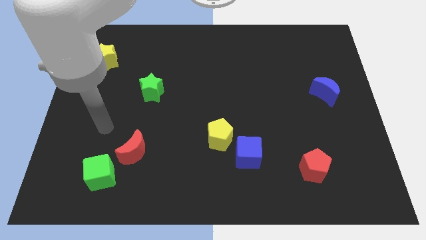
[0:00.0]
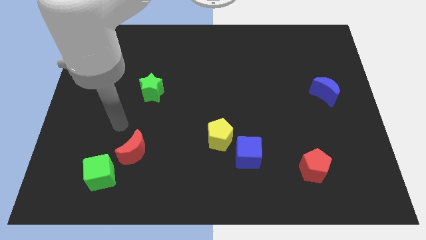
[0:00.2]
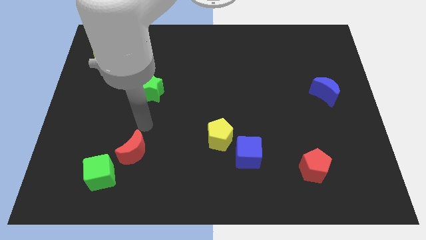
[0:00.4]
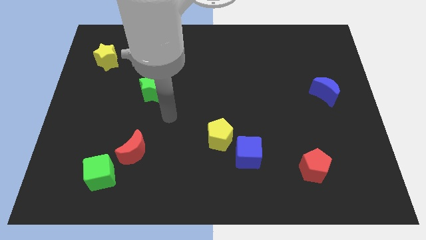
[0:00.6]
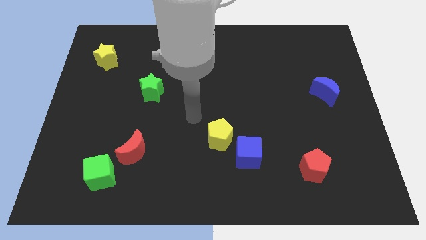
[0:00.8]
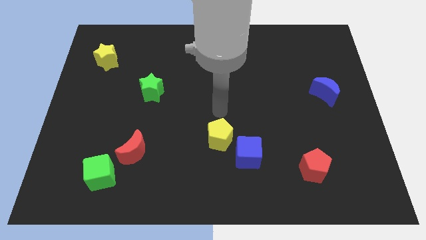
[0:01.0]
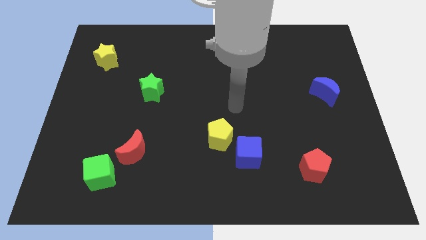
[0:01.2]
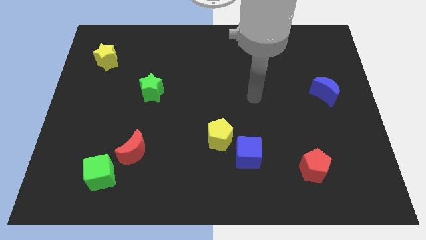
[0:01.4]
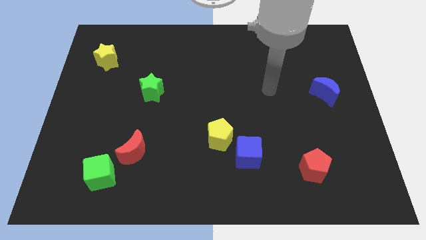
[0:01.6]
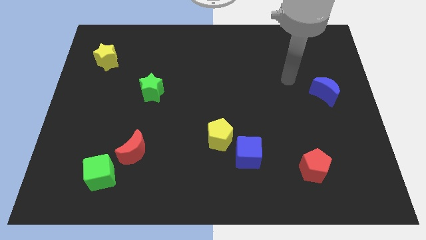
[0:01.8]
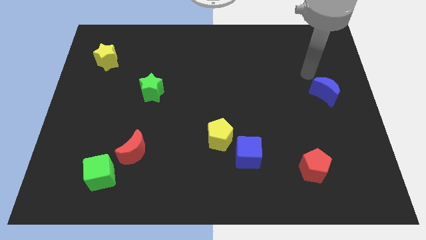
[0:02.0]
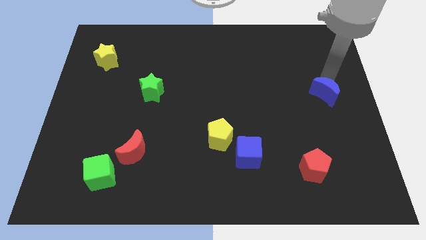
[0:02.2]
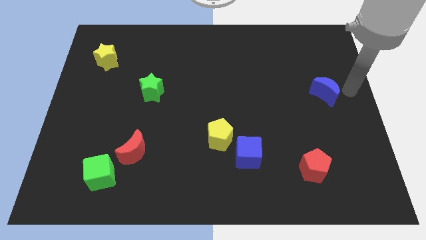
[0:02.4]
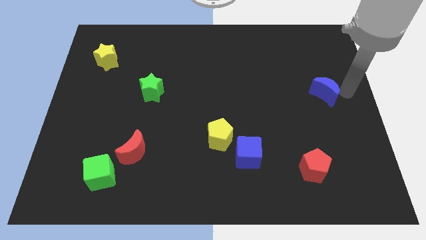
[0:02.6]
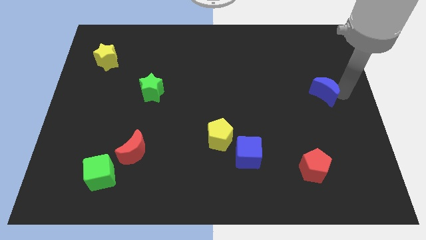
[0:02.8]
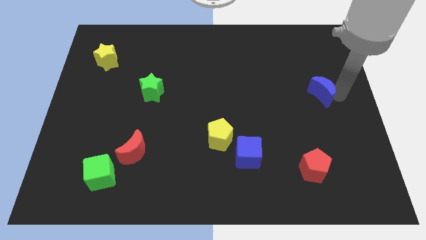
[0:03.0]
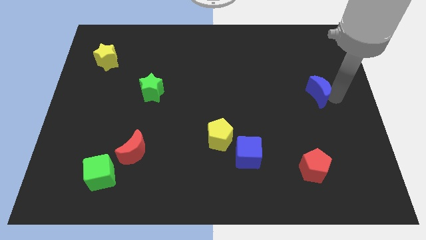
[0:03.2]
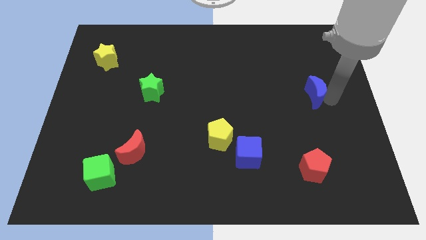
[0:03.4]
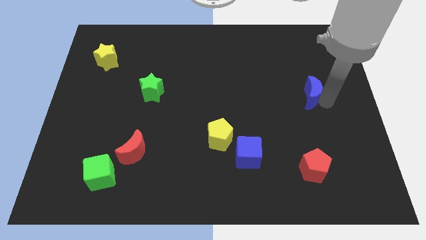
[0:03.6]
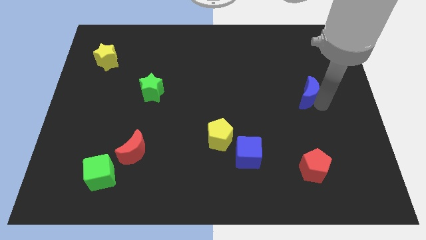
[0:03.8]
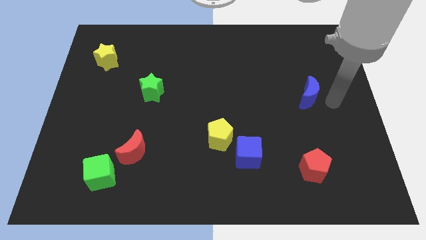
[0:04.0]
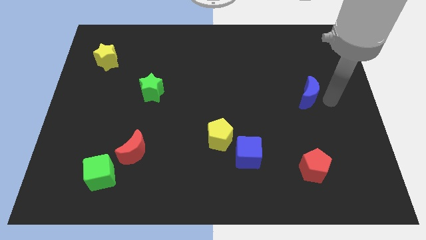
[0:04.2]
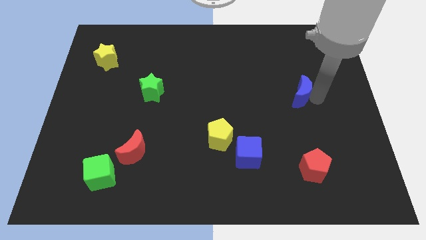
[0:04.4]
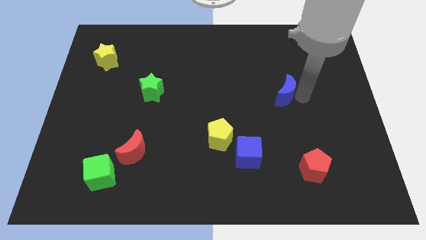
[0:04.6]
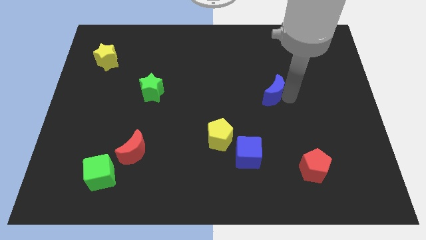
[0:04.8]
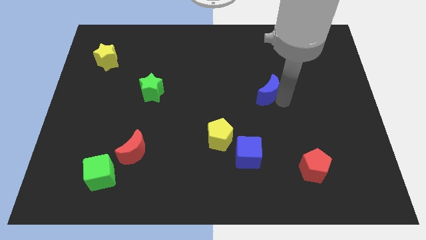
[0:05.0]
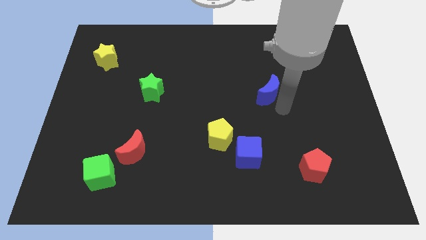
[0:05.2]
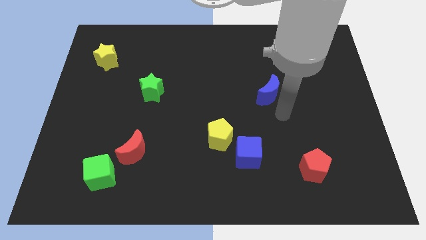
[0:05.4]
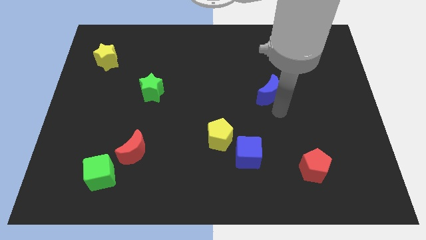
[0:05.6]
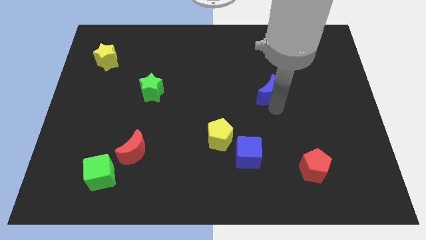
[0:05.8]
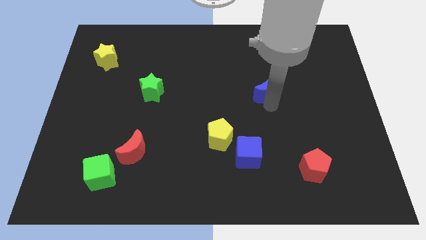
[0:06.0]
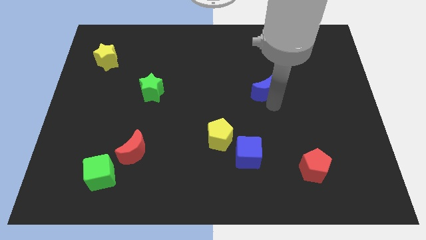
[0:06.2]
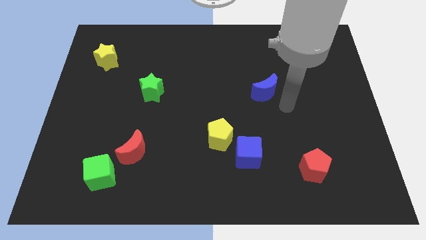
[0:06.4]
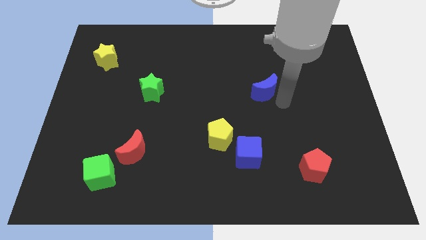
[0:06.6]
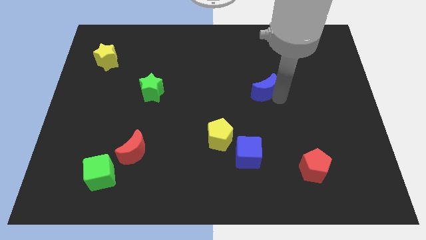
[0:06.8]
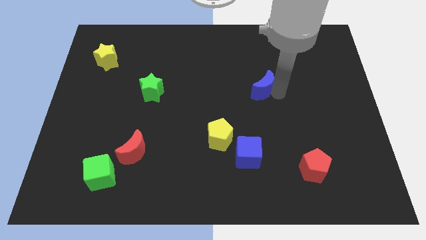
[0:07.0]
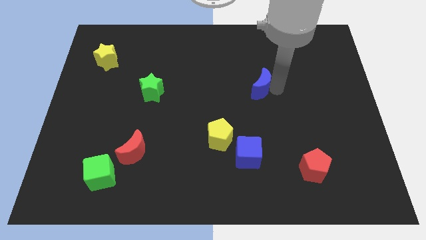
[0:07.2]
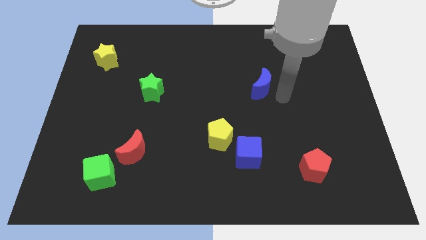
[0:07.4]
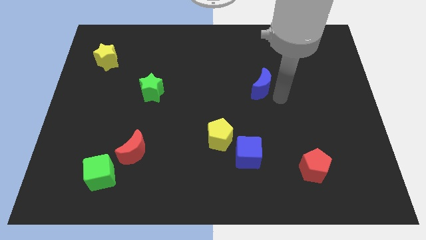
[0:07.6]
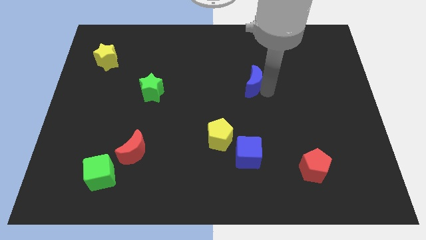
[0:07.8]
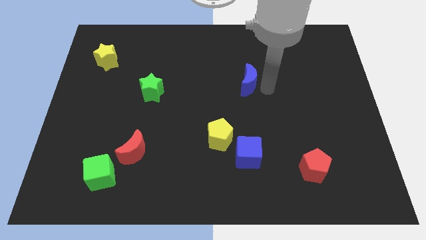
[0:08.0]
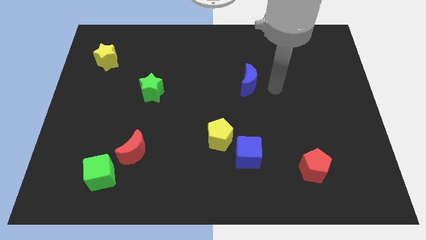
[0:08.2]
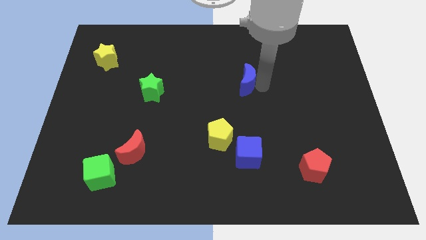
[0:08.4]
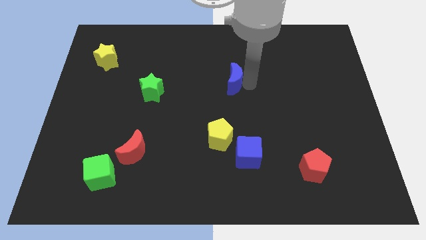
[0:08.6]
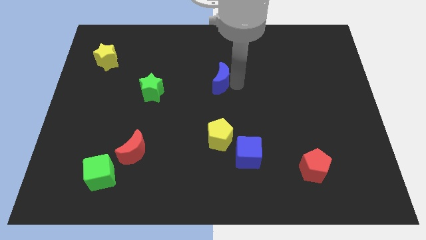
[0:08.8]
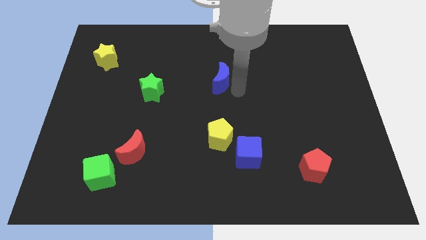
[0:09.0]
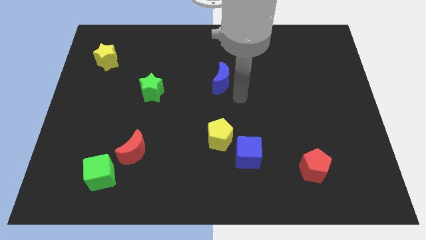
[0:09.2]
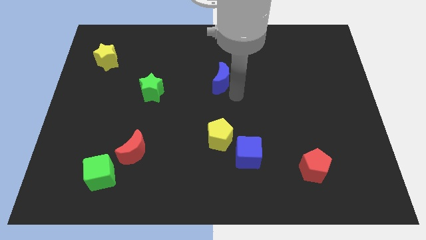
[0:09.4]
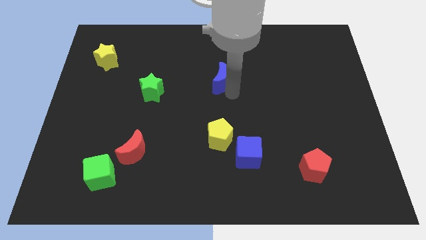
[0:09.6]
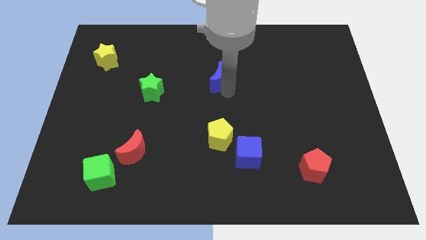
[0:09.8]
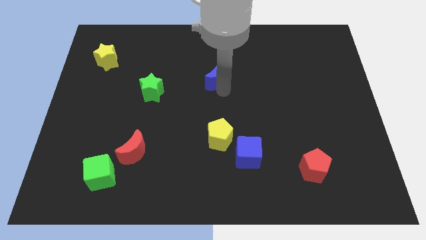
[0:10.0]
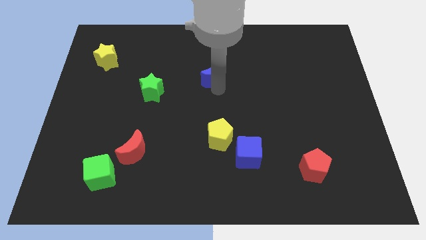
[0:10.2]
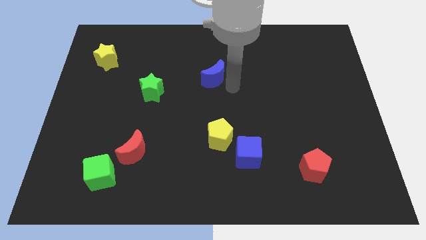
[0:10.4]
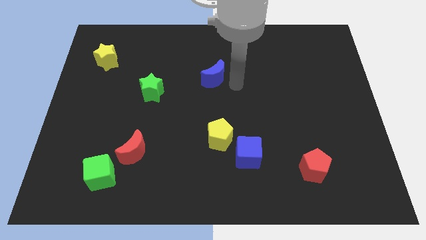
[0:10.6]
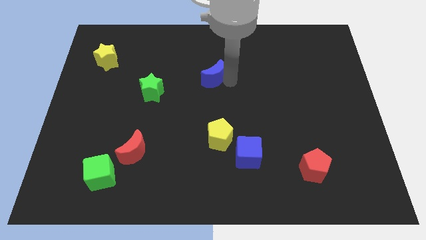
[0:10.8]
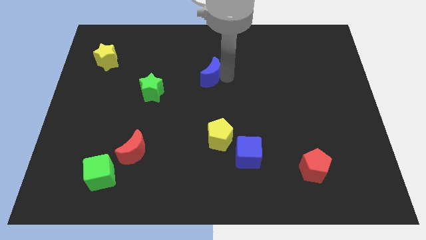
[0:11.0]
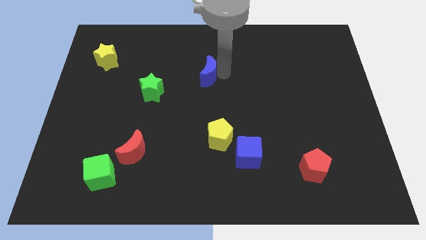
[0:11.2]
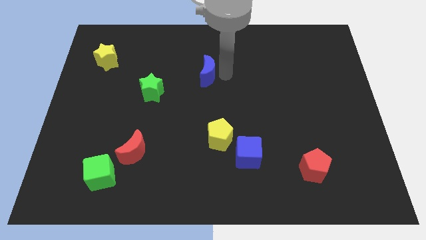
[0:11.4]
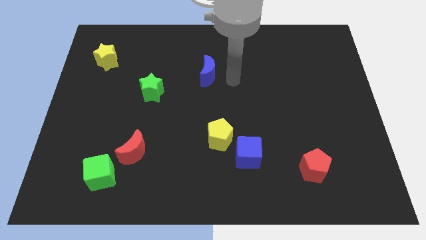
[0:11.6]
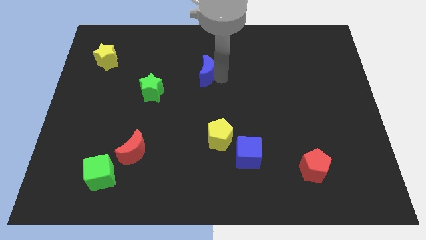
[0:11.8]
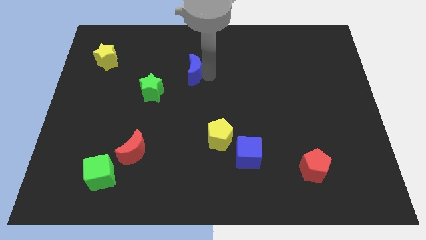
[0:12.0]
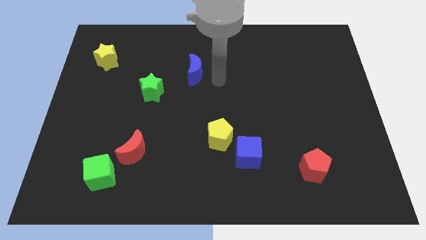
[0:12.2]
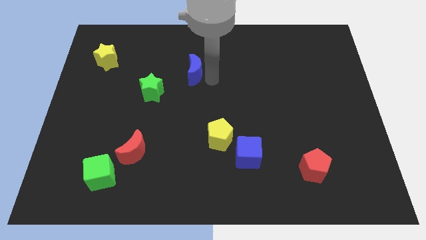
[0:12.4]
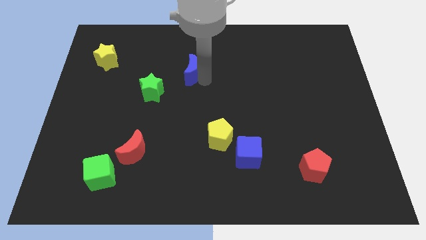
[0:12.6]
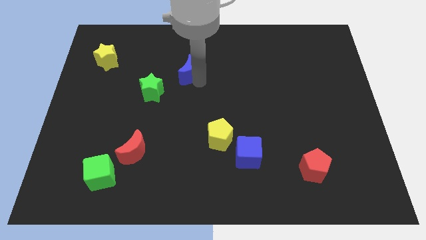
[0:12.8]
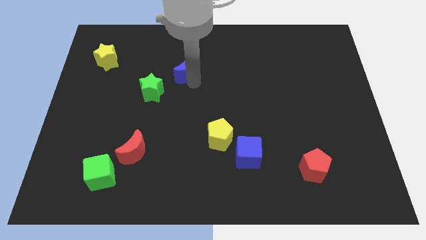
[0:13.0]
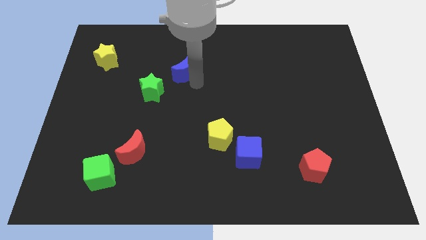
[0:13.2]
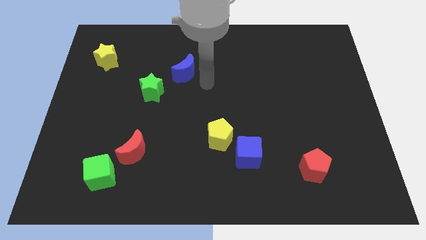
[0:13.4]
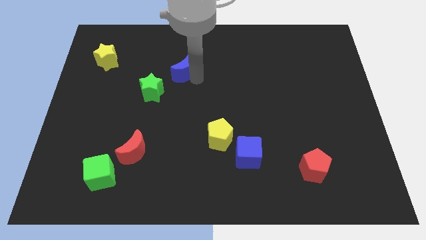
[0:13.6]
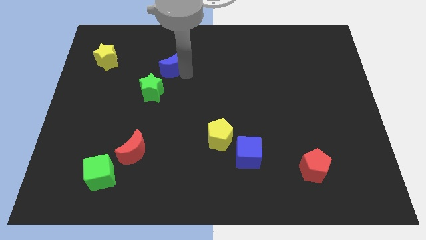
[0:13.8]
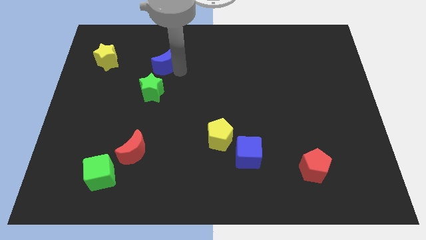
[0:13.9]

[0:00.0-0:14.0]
move the blue moon to the right side of the yellow star
